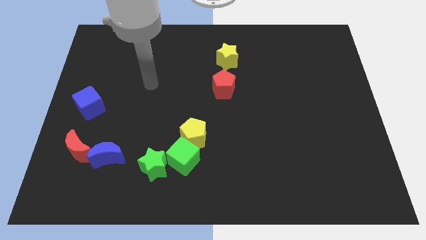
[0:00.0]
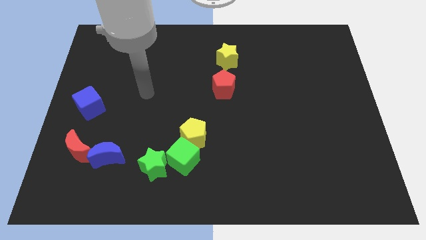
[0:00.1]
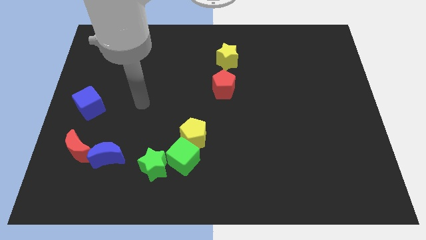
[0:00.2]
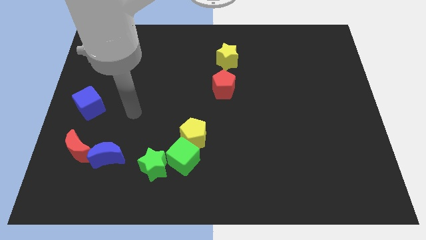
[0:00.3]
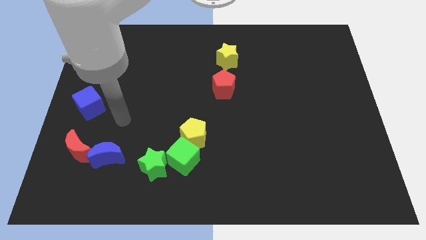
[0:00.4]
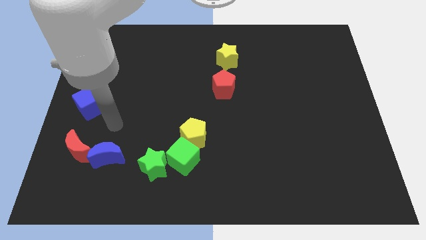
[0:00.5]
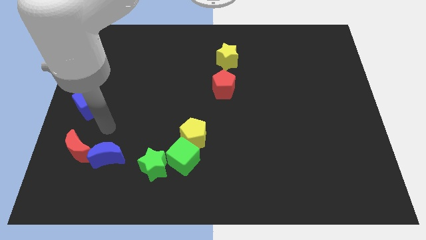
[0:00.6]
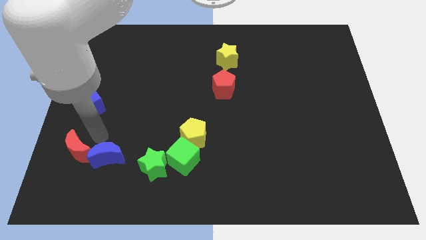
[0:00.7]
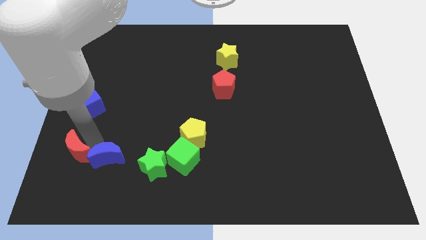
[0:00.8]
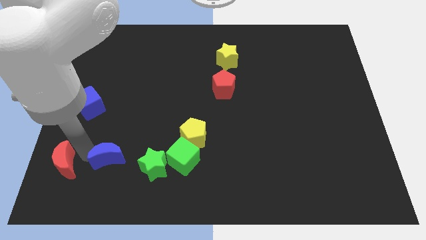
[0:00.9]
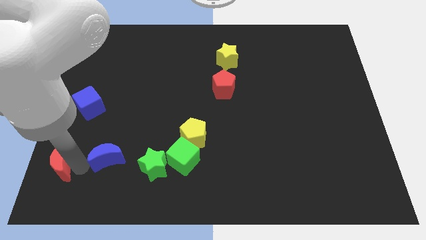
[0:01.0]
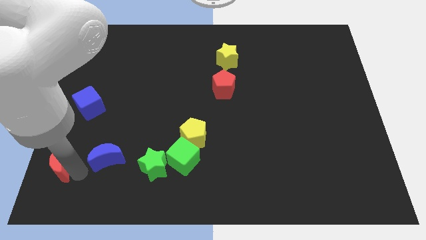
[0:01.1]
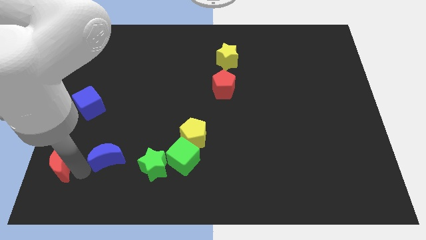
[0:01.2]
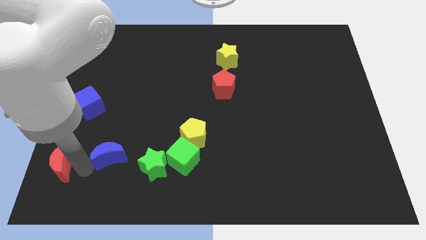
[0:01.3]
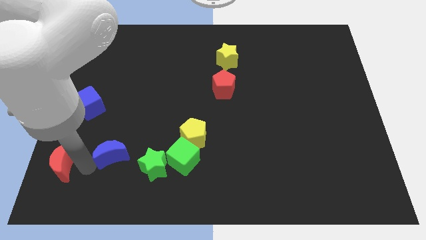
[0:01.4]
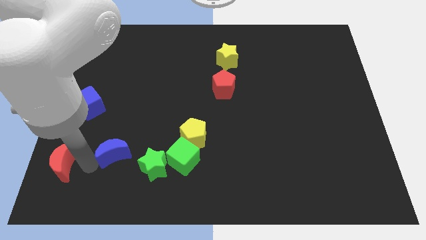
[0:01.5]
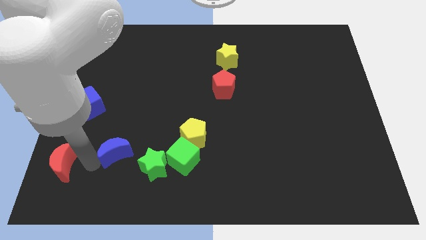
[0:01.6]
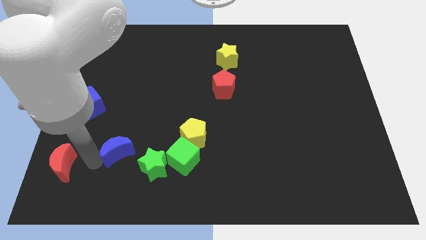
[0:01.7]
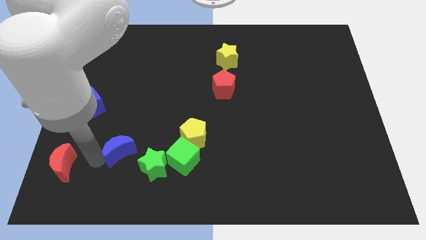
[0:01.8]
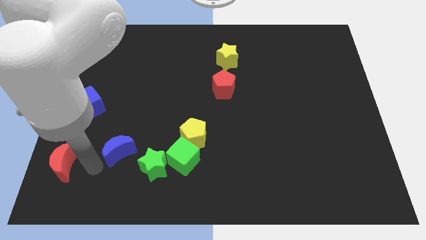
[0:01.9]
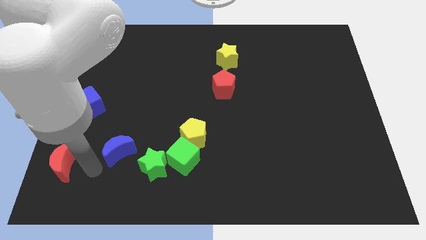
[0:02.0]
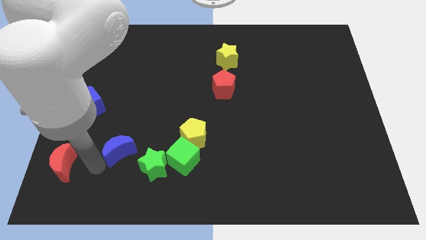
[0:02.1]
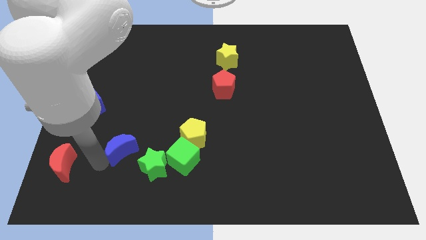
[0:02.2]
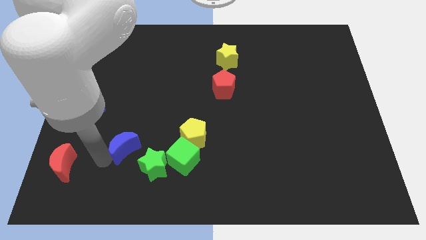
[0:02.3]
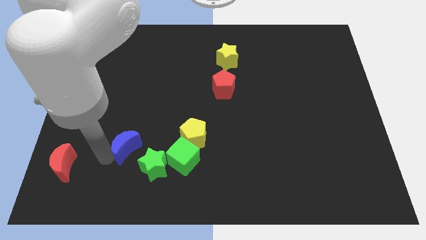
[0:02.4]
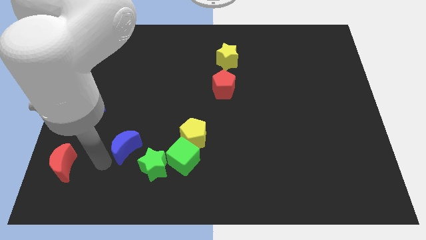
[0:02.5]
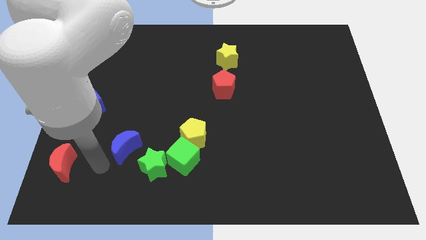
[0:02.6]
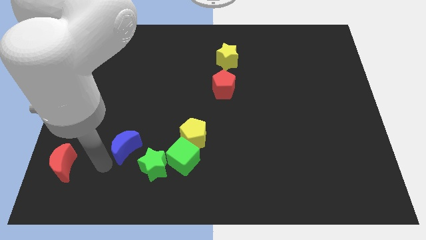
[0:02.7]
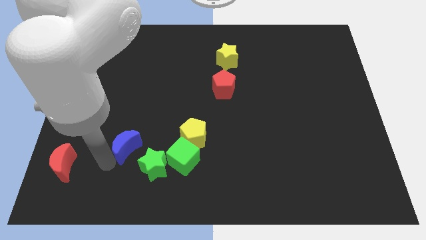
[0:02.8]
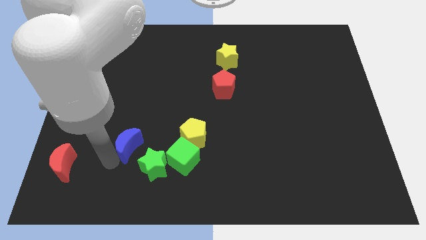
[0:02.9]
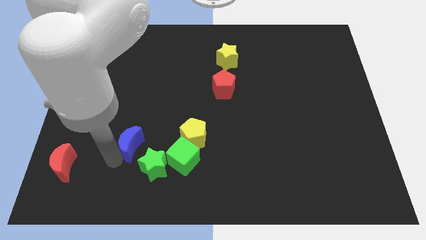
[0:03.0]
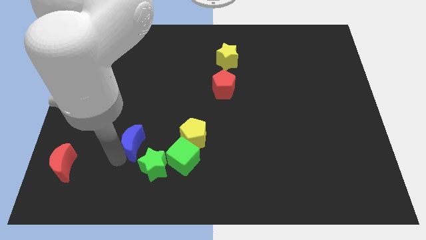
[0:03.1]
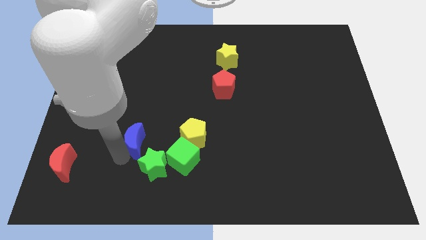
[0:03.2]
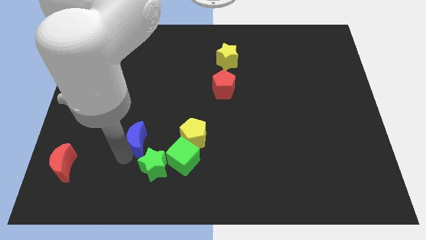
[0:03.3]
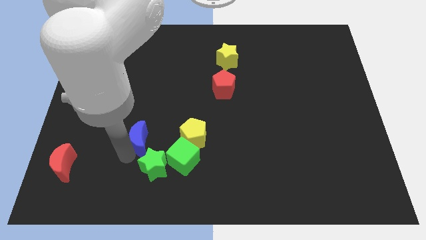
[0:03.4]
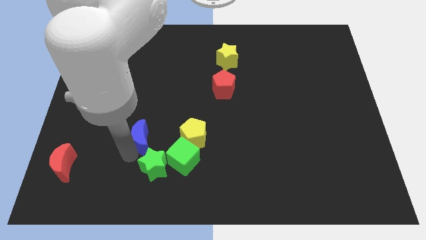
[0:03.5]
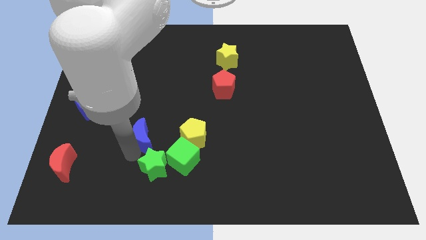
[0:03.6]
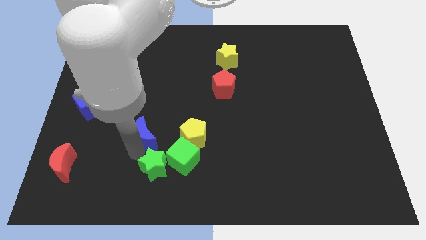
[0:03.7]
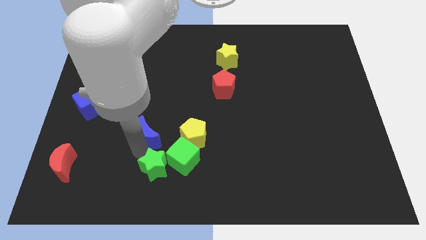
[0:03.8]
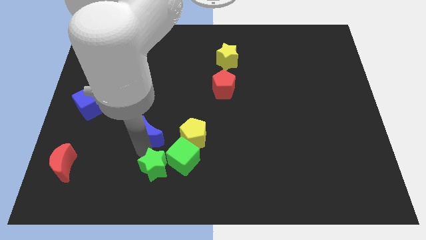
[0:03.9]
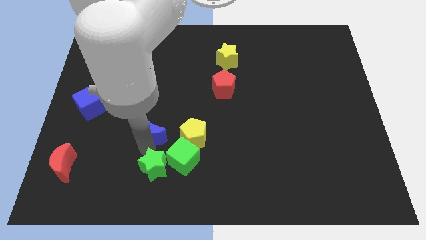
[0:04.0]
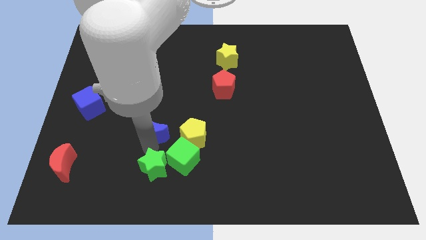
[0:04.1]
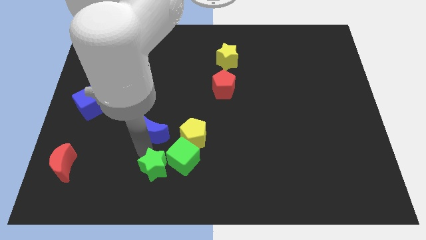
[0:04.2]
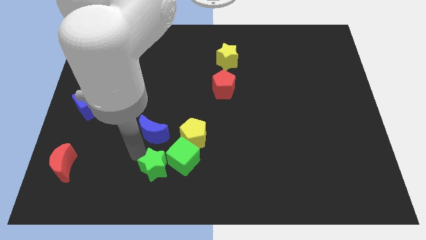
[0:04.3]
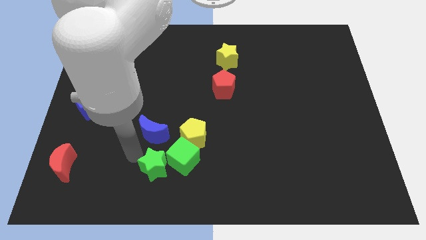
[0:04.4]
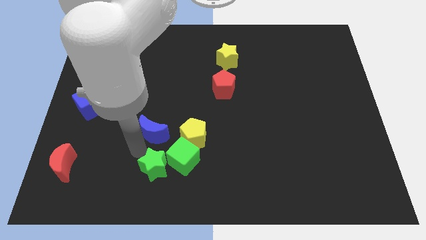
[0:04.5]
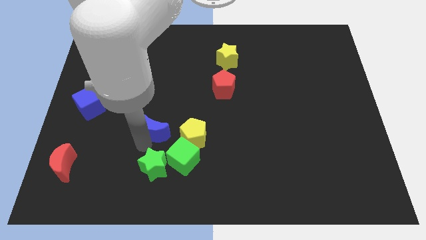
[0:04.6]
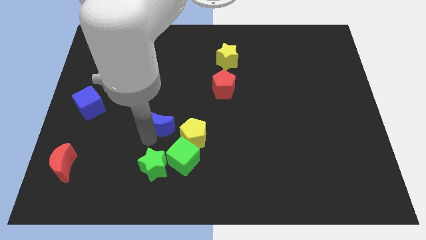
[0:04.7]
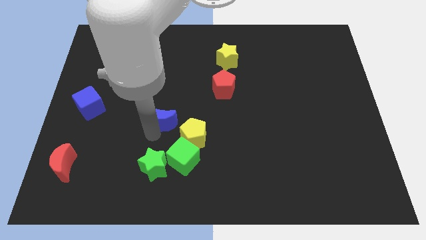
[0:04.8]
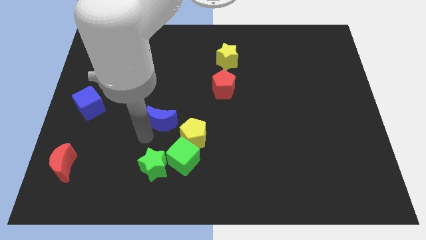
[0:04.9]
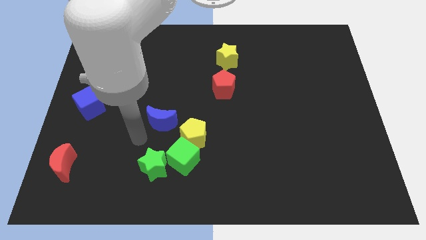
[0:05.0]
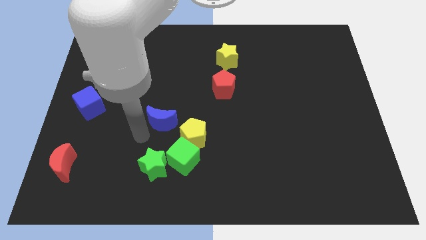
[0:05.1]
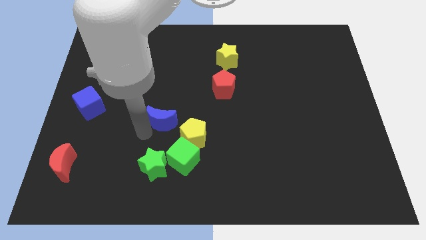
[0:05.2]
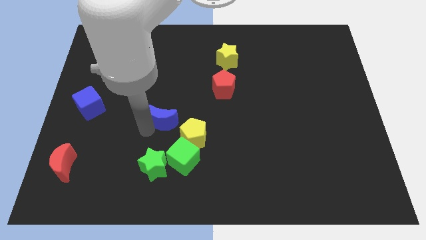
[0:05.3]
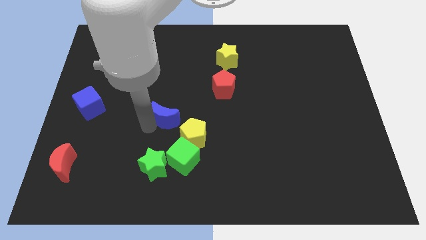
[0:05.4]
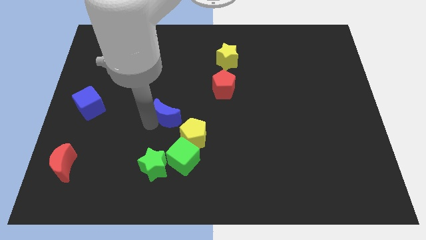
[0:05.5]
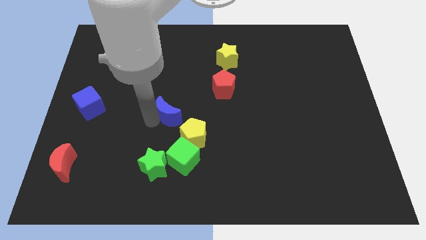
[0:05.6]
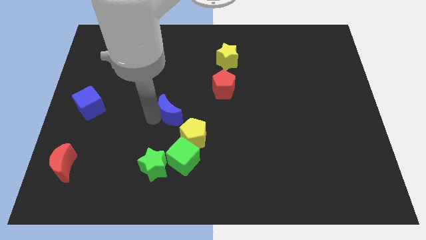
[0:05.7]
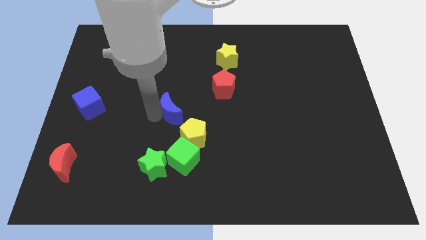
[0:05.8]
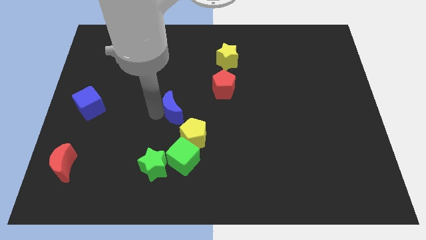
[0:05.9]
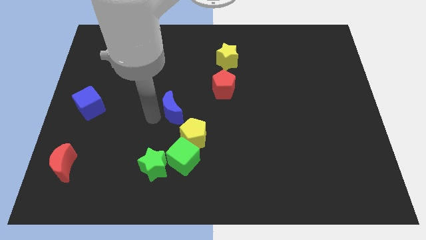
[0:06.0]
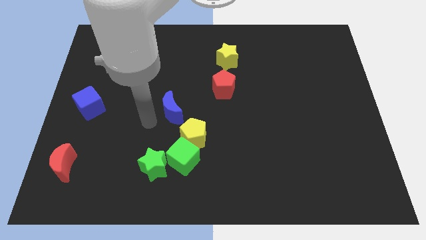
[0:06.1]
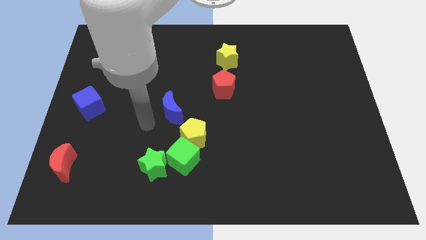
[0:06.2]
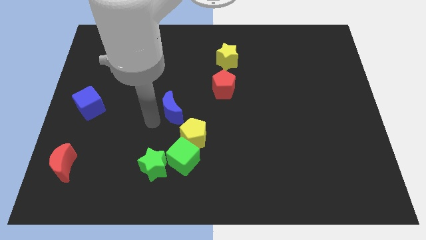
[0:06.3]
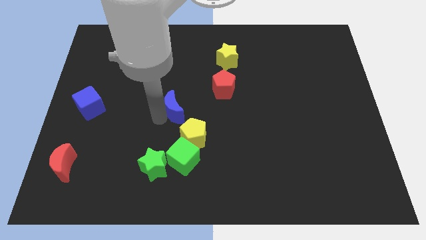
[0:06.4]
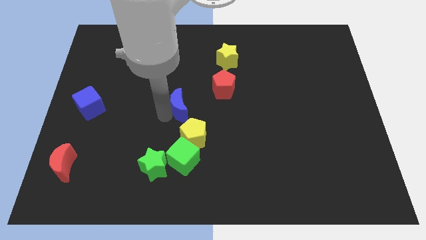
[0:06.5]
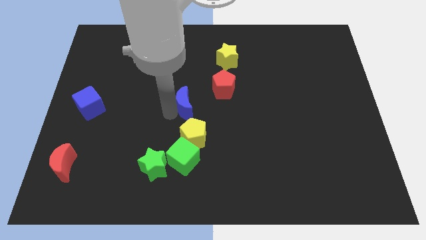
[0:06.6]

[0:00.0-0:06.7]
push the blue moon diagonally up and to the right

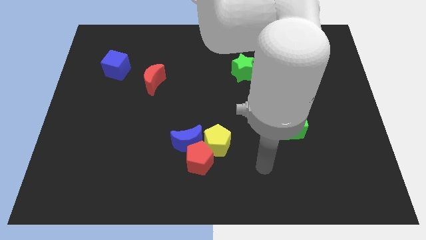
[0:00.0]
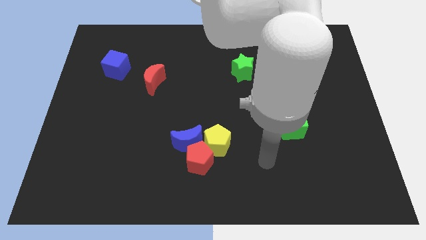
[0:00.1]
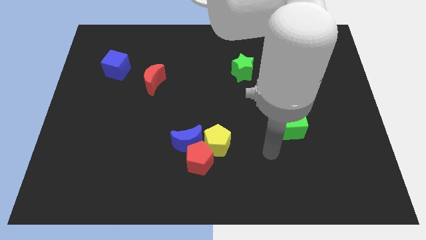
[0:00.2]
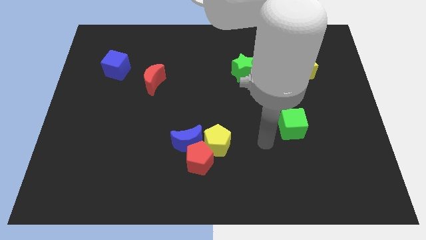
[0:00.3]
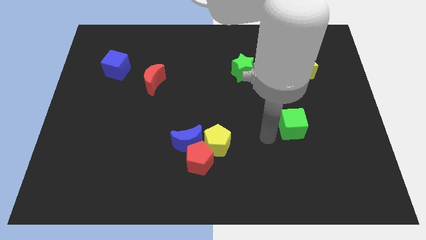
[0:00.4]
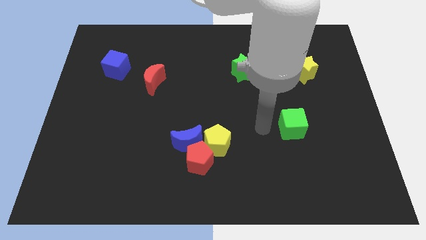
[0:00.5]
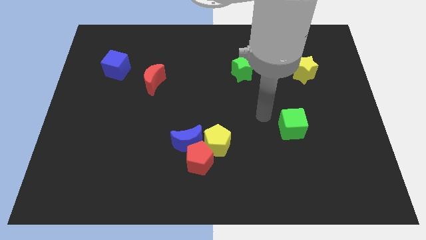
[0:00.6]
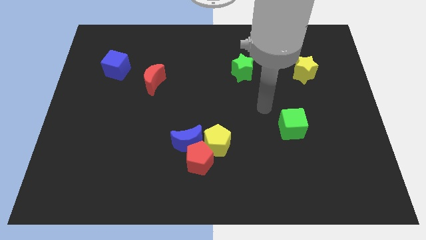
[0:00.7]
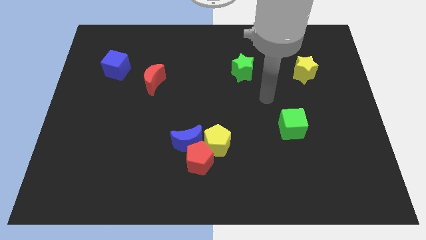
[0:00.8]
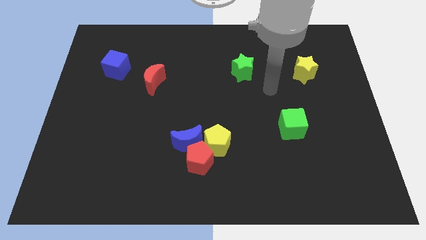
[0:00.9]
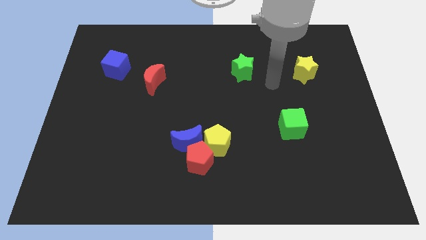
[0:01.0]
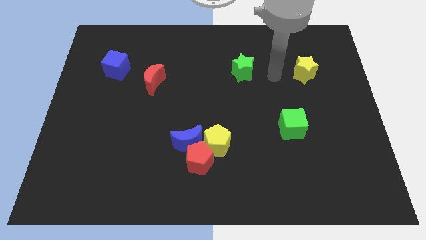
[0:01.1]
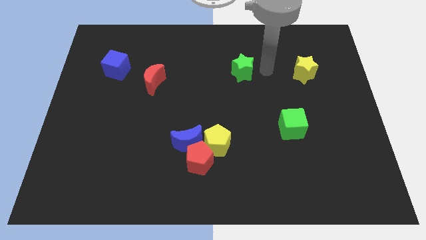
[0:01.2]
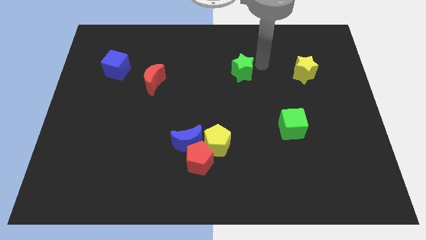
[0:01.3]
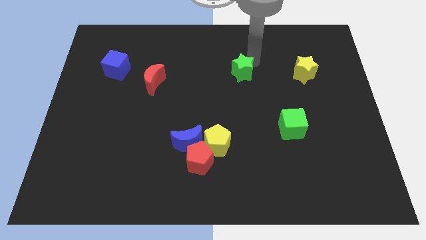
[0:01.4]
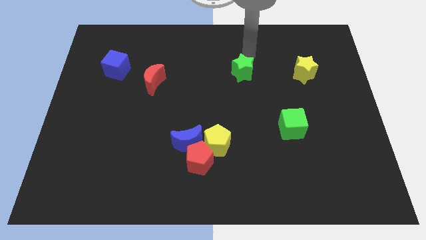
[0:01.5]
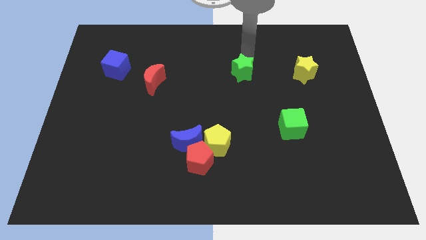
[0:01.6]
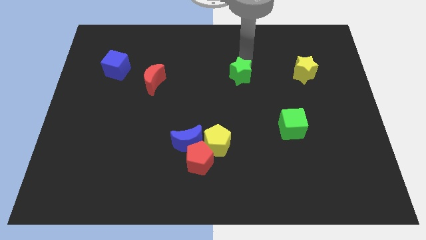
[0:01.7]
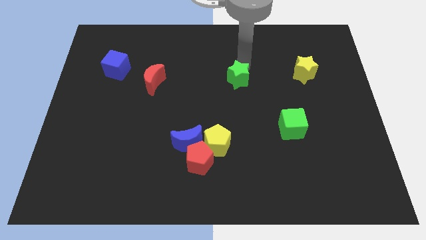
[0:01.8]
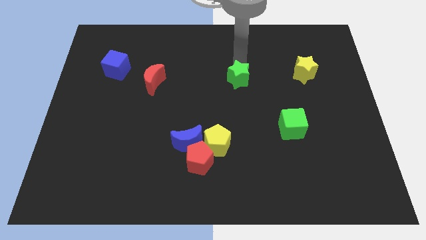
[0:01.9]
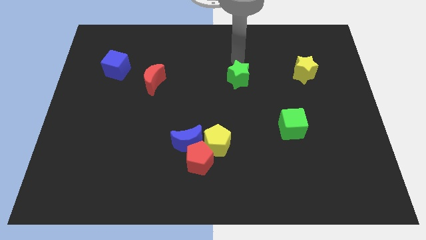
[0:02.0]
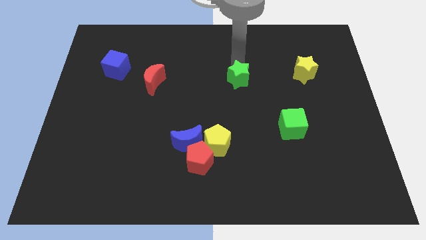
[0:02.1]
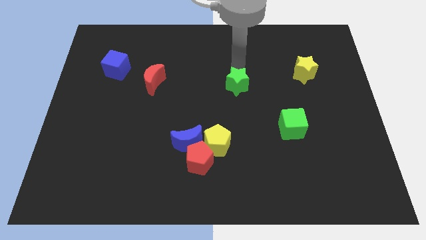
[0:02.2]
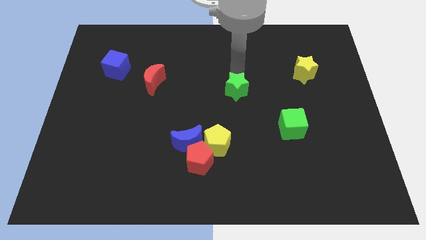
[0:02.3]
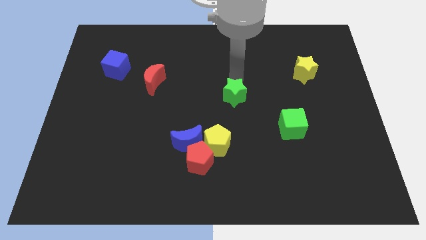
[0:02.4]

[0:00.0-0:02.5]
slightly push the green star down
